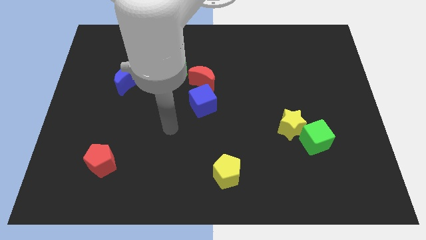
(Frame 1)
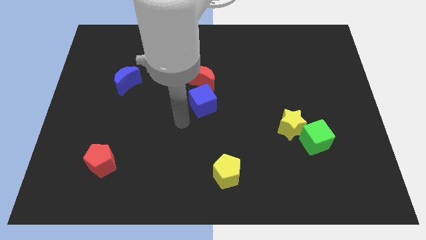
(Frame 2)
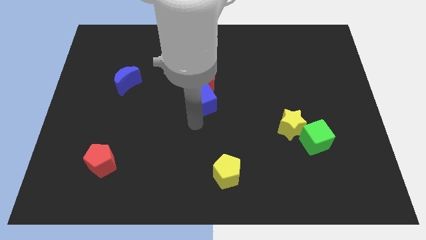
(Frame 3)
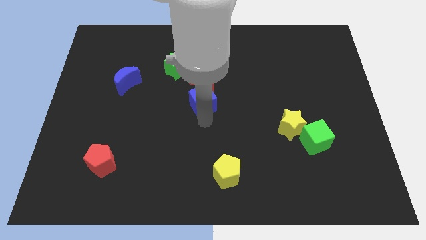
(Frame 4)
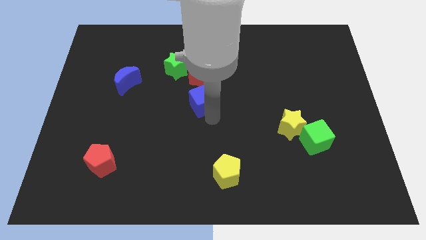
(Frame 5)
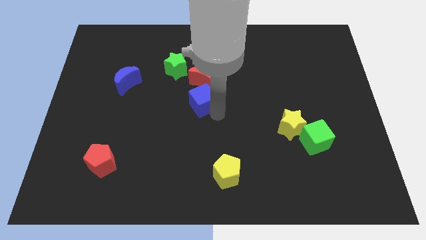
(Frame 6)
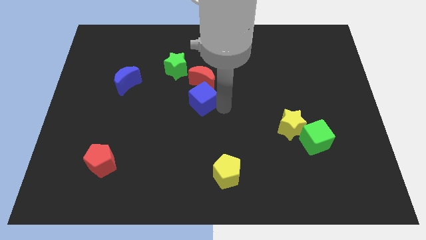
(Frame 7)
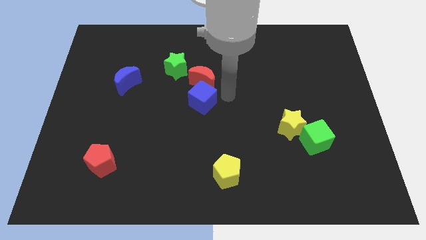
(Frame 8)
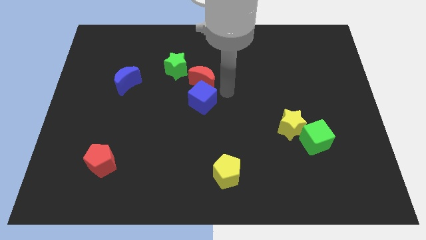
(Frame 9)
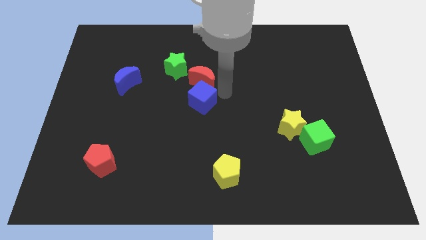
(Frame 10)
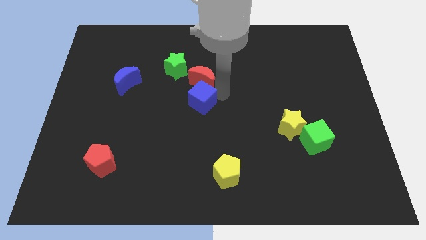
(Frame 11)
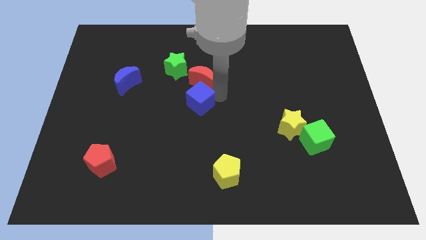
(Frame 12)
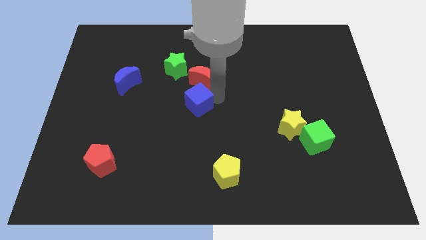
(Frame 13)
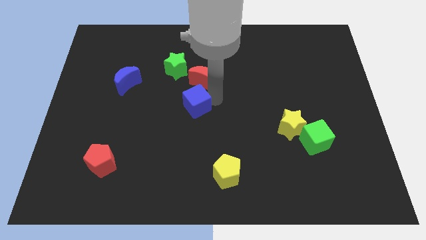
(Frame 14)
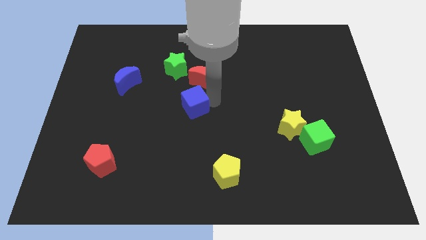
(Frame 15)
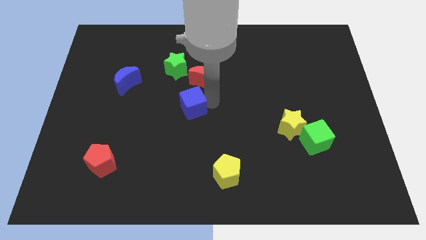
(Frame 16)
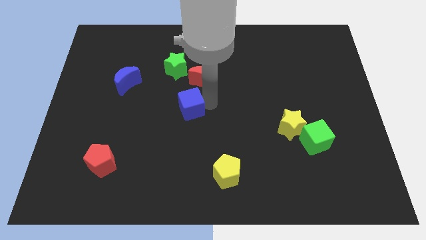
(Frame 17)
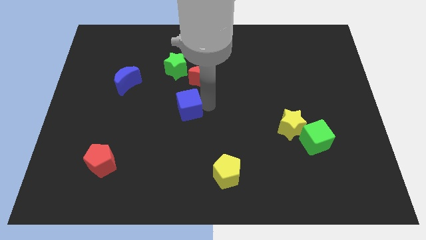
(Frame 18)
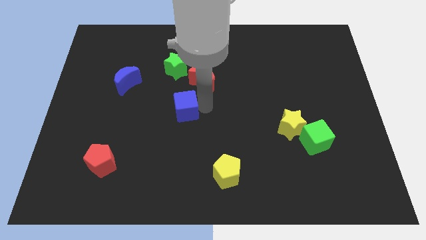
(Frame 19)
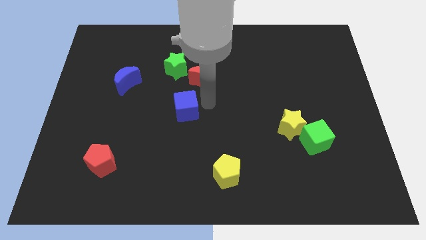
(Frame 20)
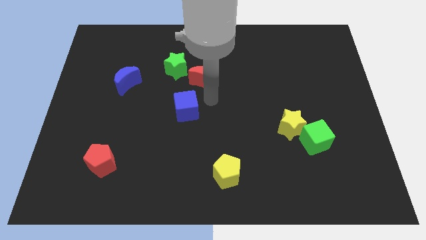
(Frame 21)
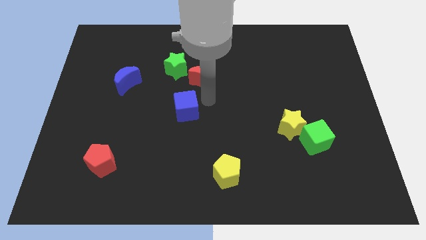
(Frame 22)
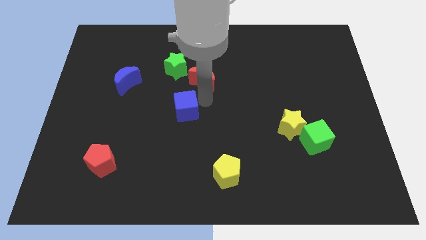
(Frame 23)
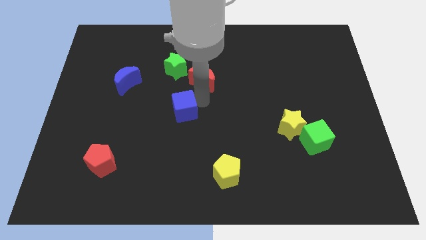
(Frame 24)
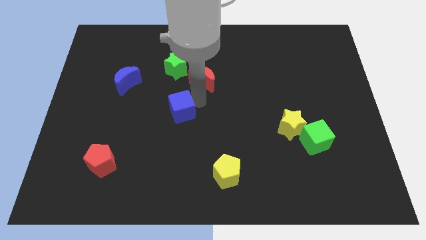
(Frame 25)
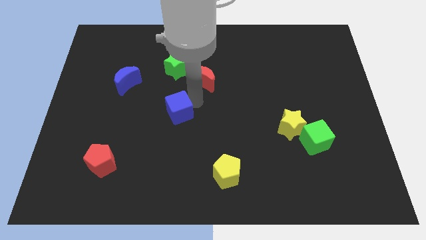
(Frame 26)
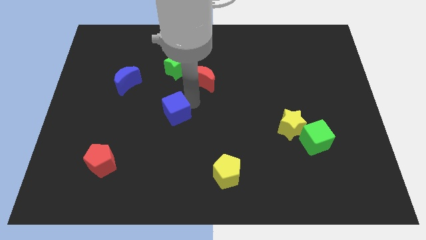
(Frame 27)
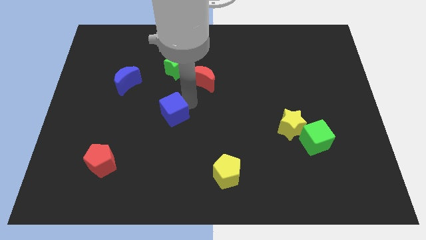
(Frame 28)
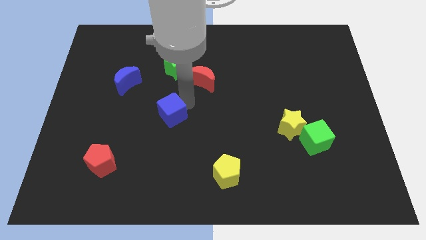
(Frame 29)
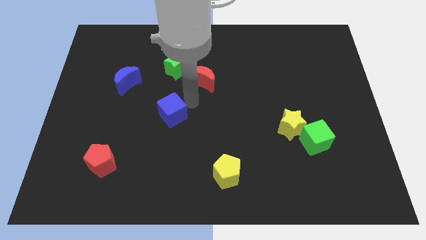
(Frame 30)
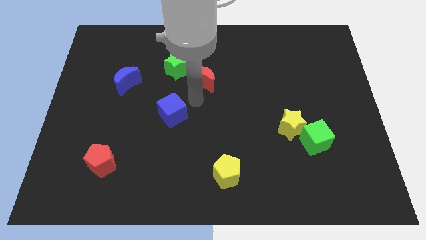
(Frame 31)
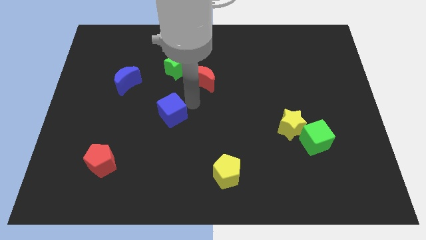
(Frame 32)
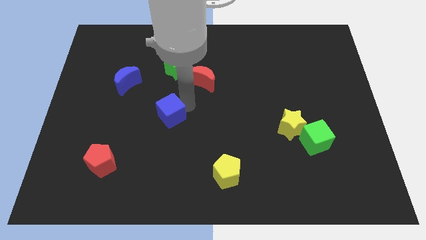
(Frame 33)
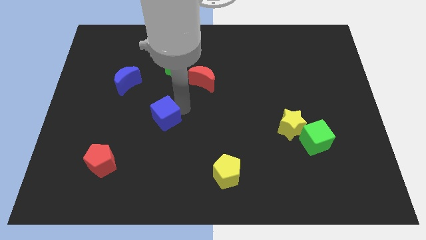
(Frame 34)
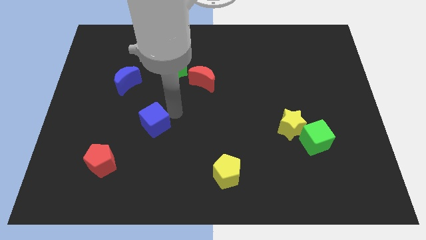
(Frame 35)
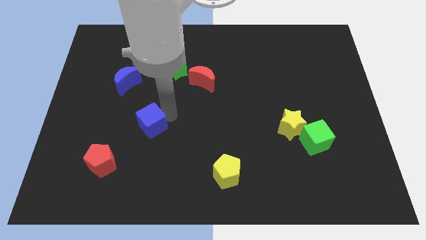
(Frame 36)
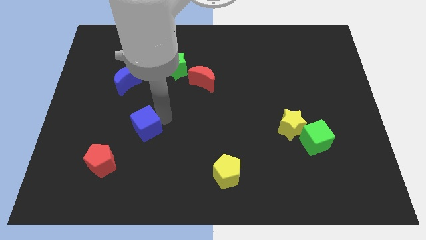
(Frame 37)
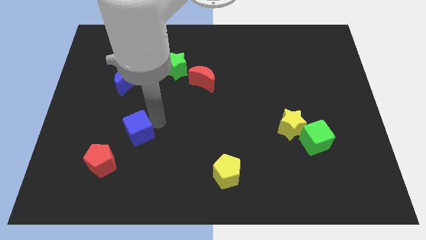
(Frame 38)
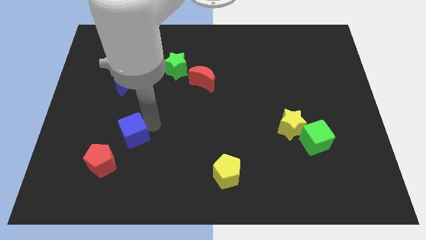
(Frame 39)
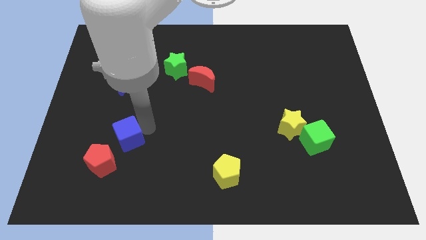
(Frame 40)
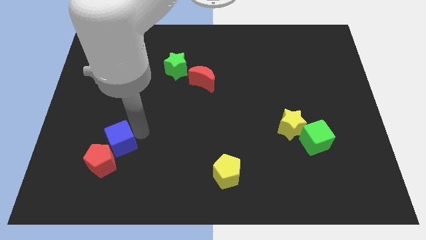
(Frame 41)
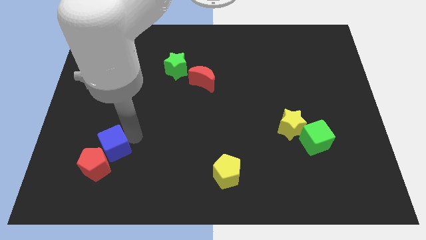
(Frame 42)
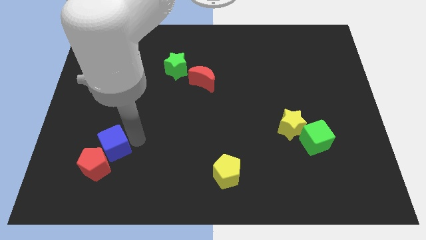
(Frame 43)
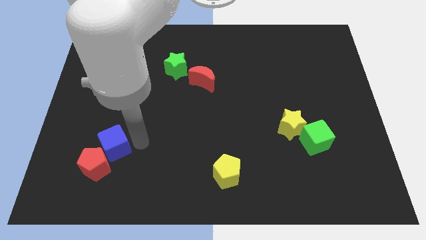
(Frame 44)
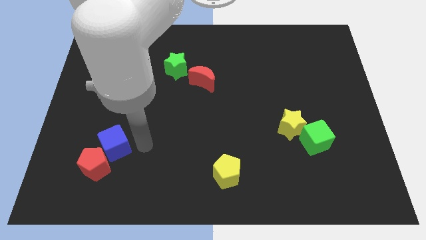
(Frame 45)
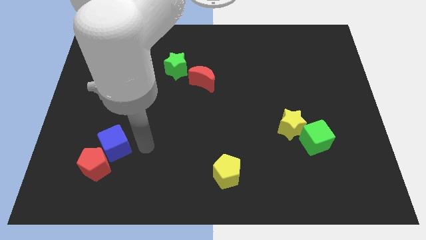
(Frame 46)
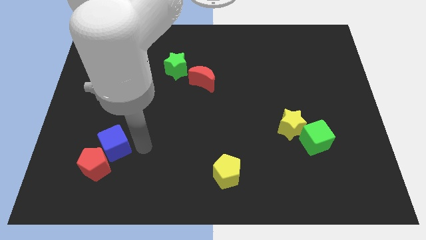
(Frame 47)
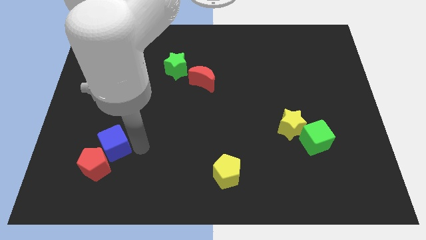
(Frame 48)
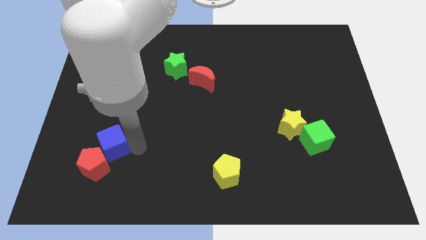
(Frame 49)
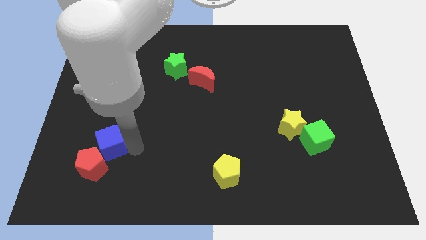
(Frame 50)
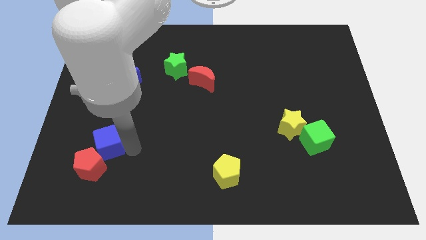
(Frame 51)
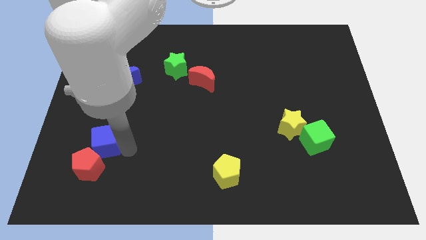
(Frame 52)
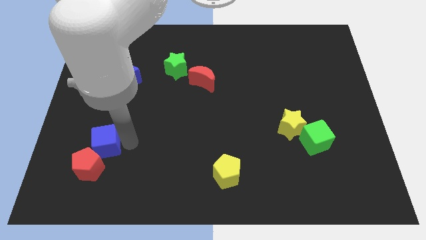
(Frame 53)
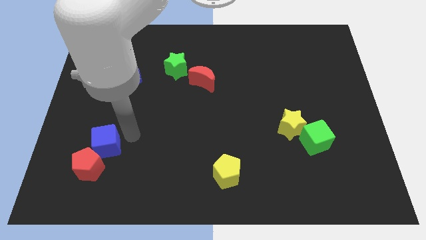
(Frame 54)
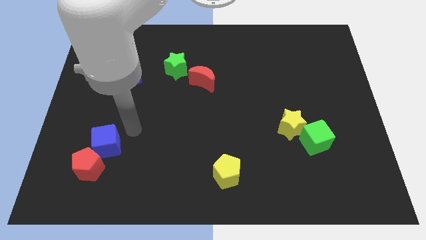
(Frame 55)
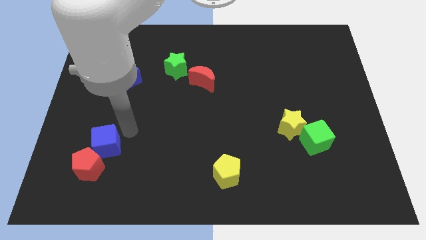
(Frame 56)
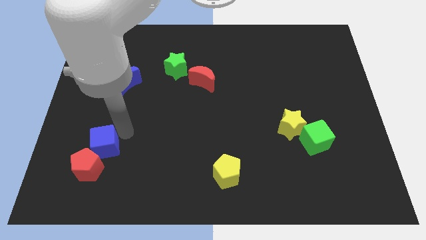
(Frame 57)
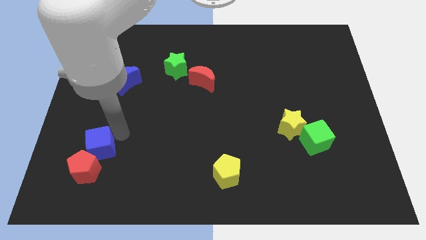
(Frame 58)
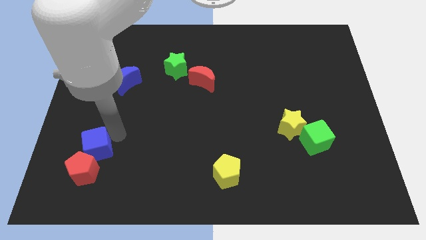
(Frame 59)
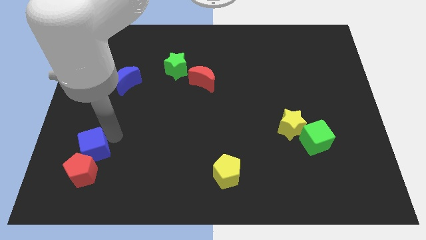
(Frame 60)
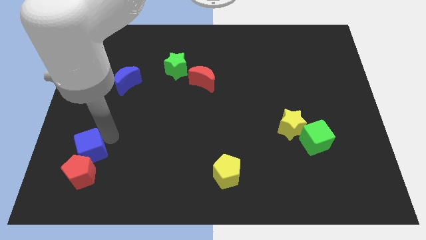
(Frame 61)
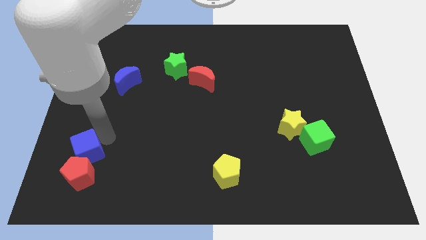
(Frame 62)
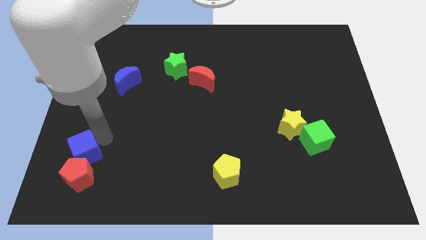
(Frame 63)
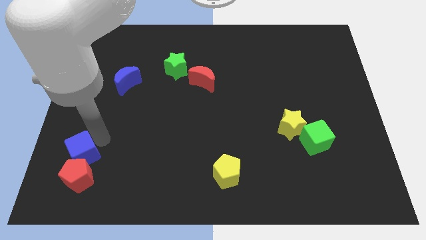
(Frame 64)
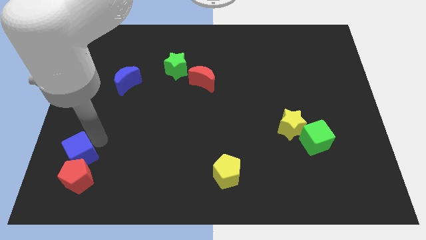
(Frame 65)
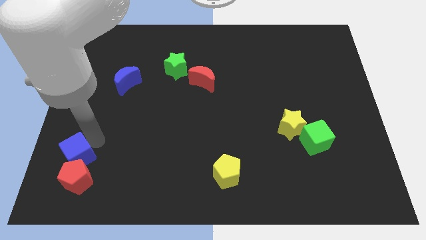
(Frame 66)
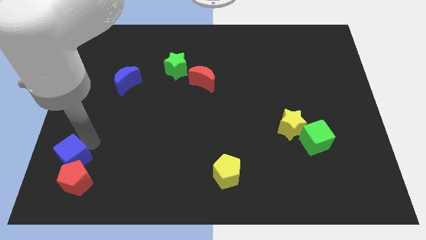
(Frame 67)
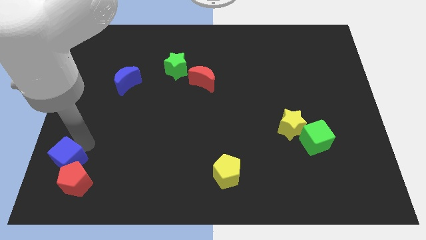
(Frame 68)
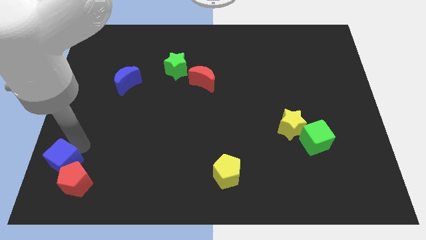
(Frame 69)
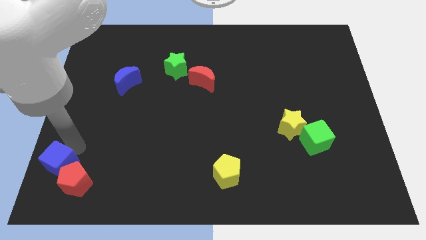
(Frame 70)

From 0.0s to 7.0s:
put the blue cube to the lower left corner
